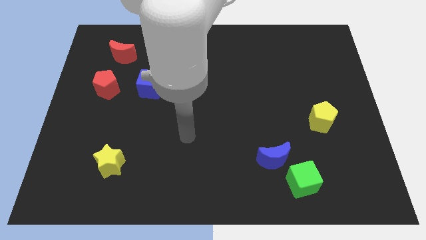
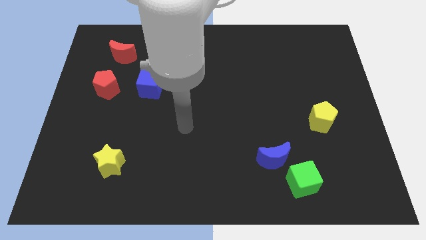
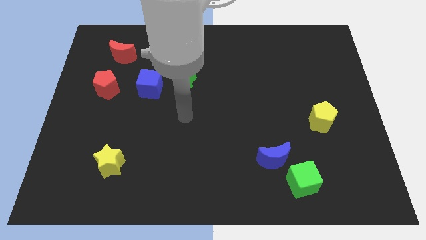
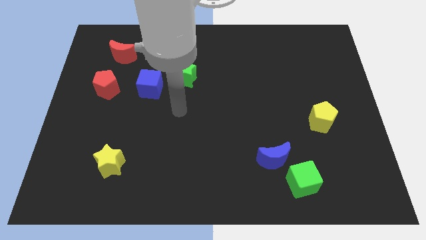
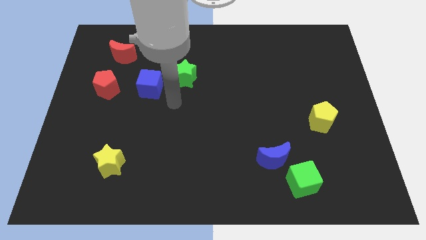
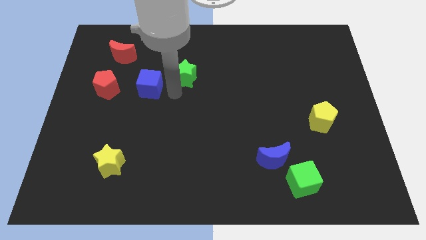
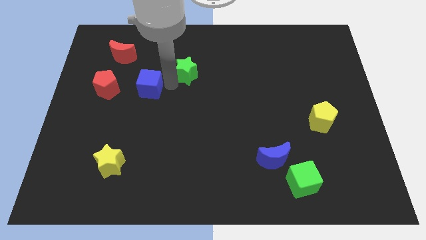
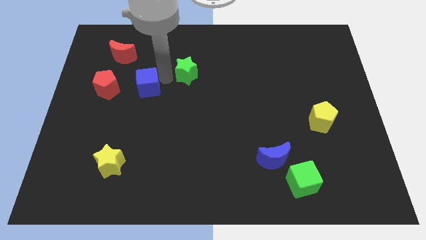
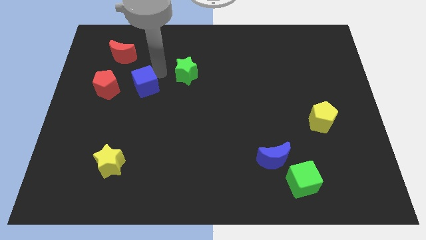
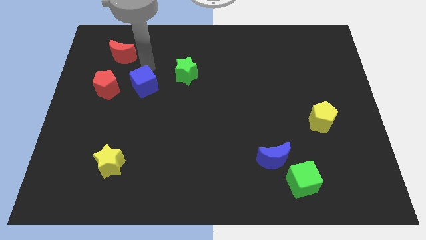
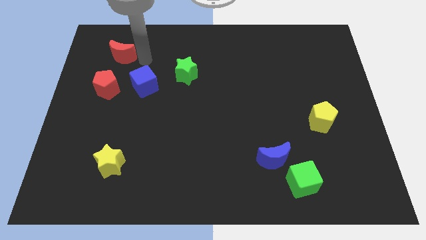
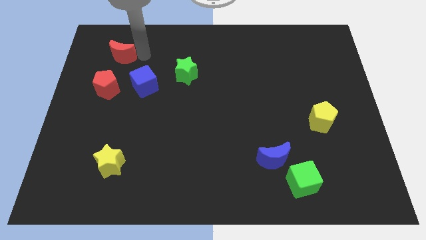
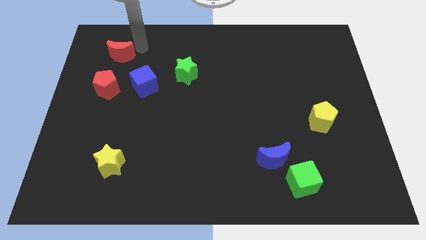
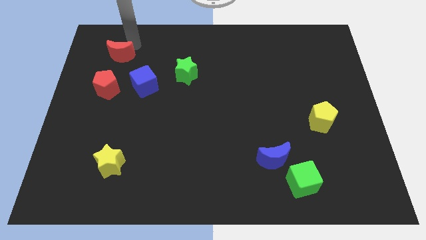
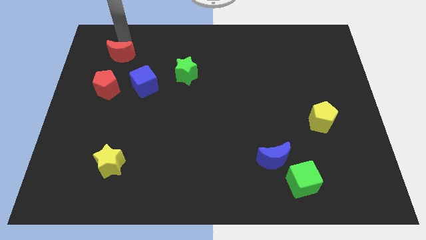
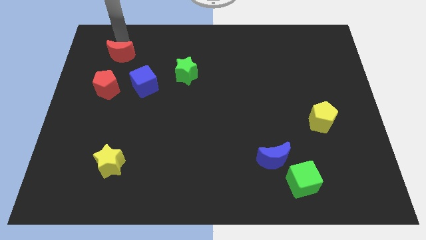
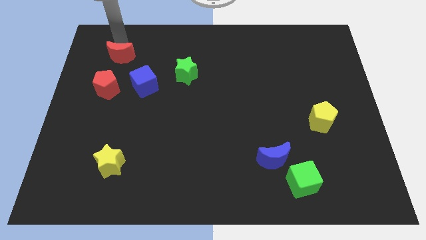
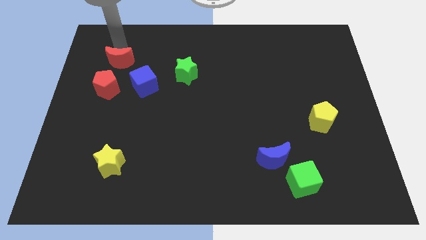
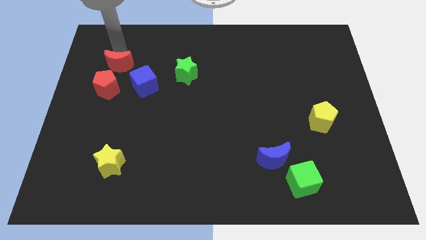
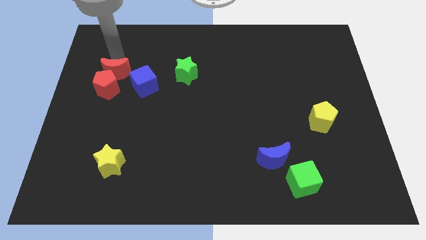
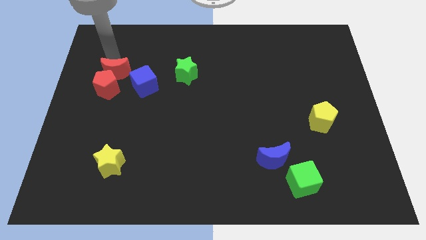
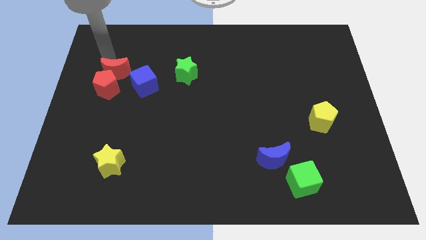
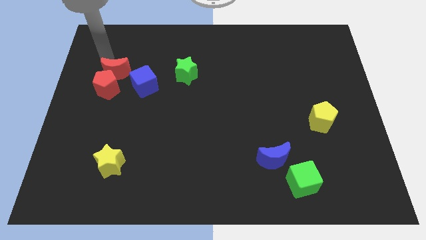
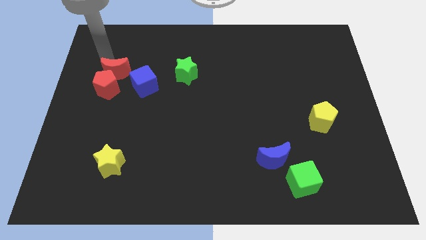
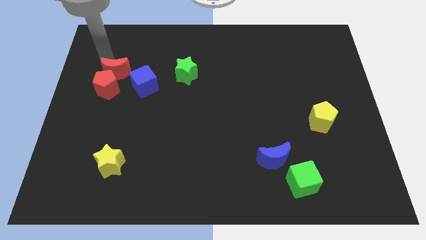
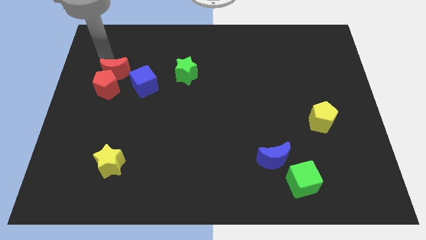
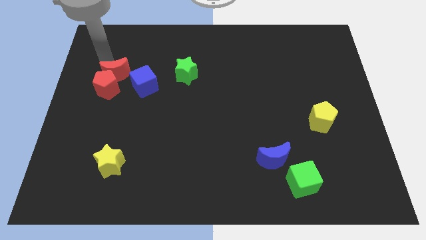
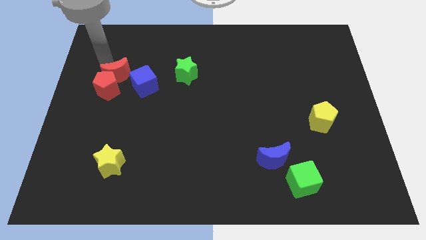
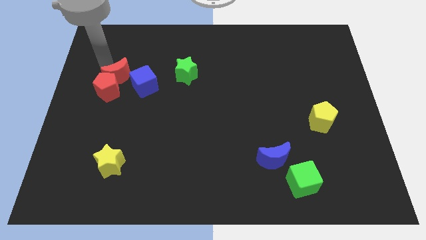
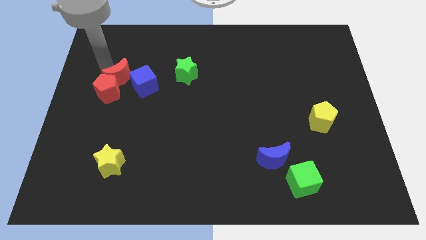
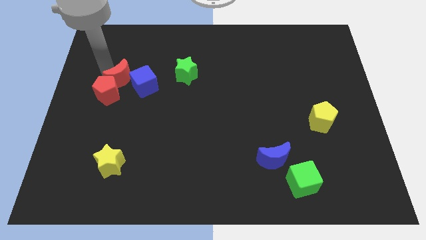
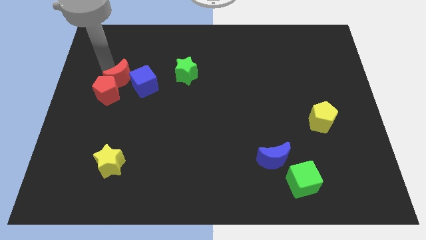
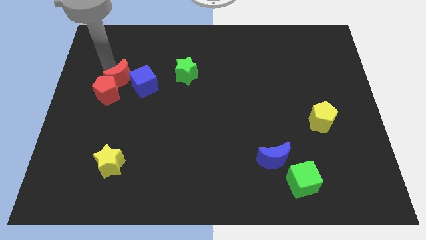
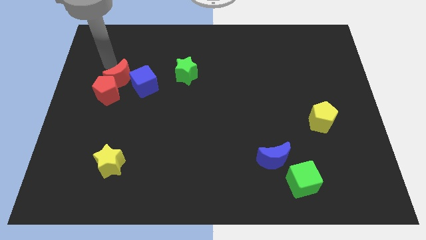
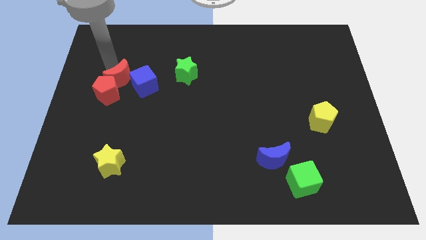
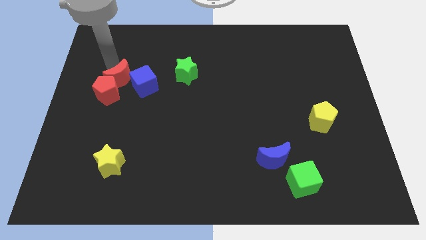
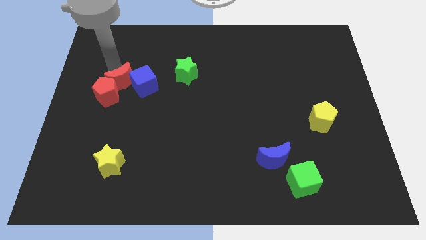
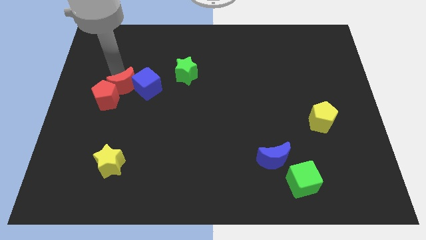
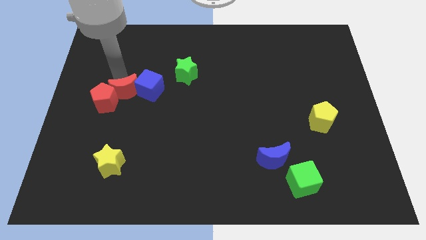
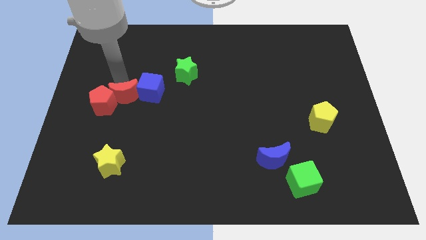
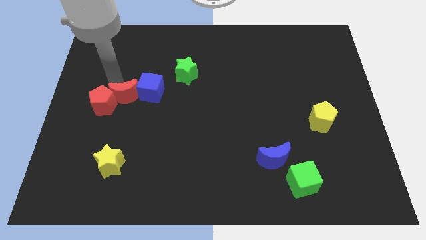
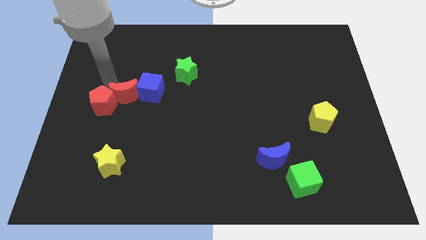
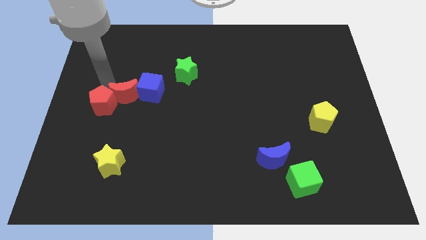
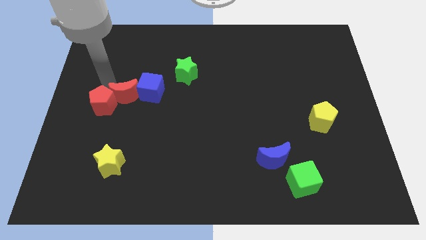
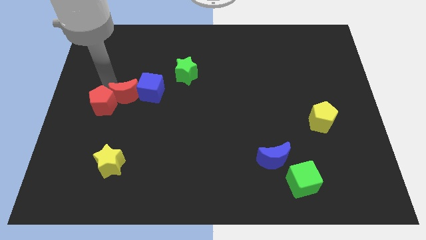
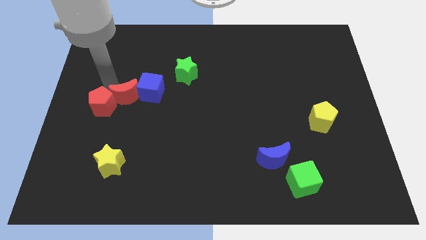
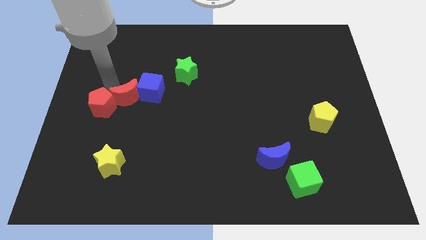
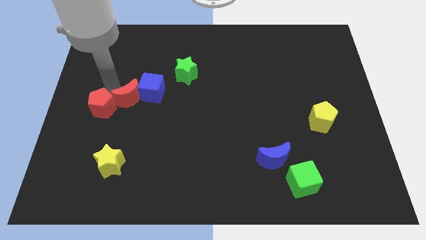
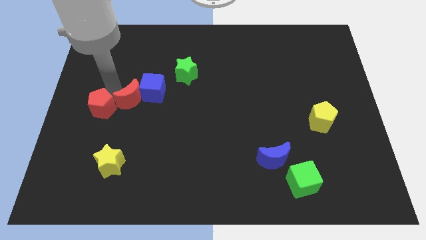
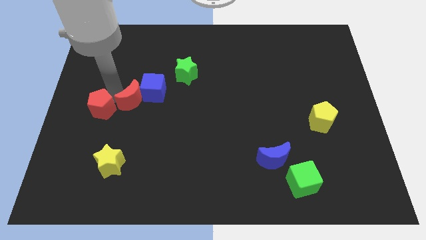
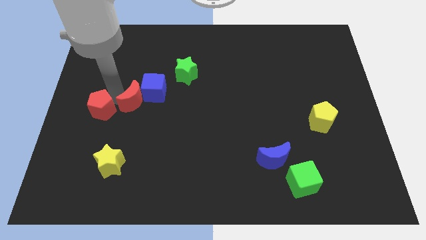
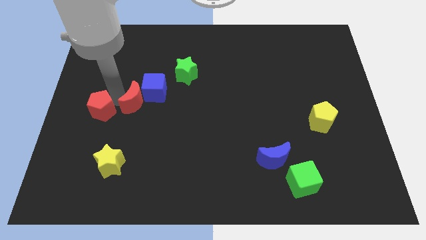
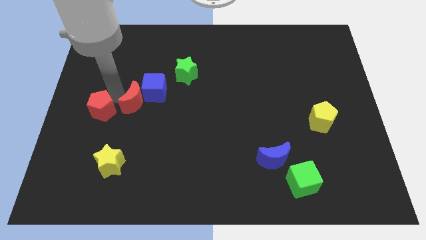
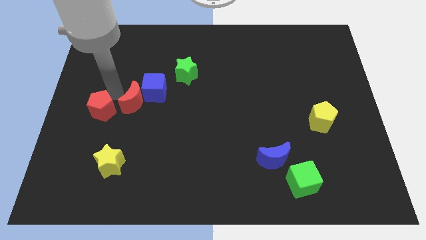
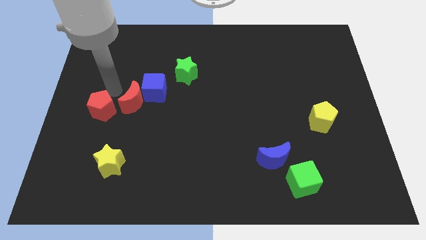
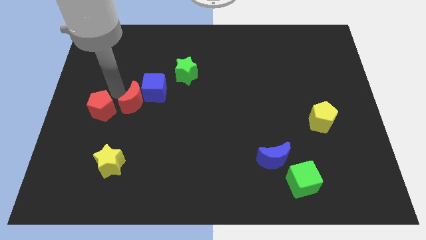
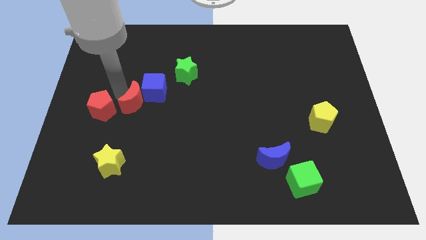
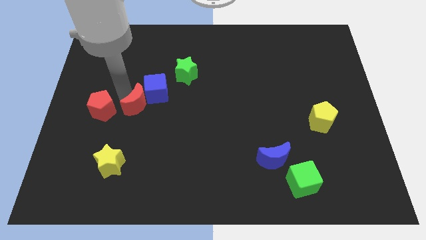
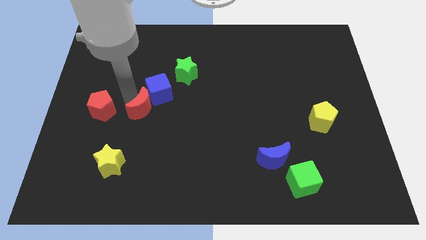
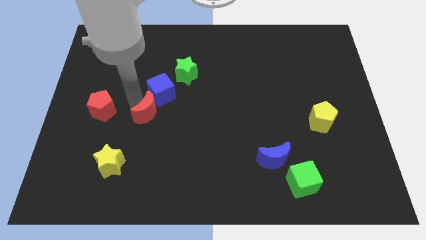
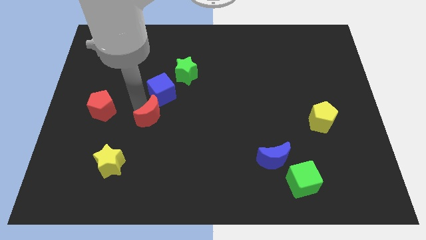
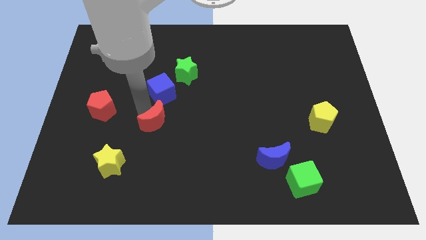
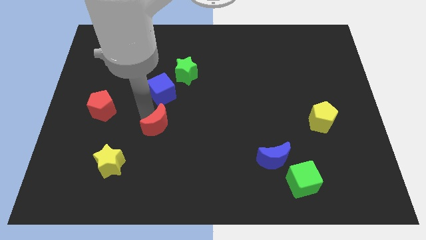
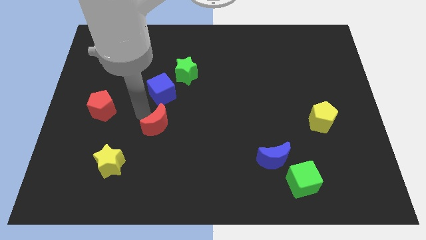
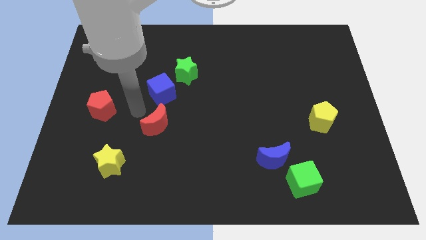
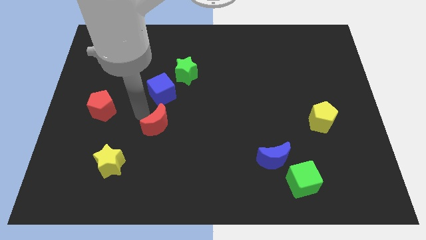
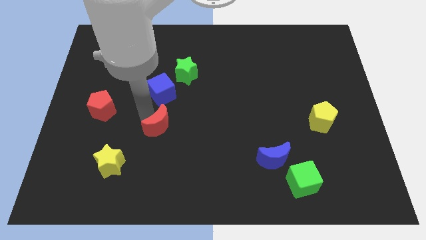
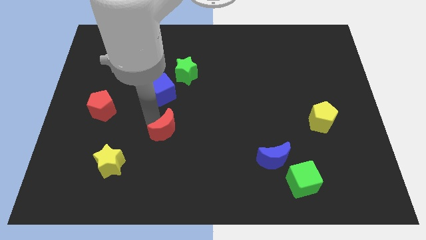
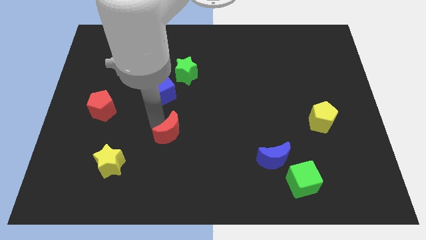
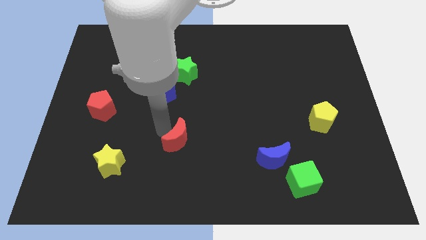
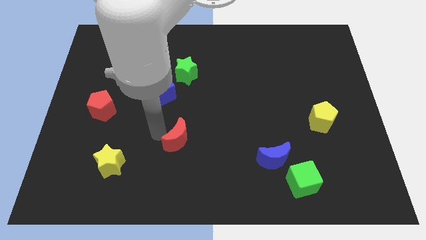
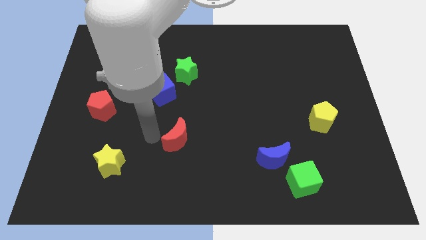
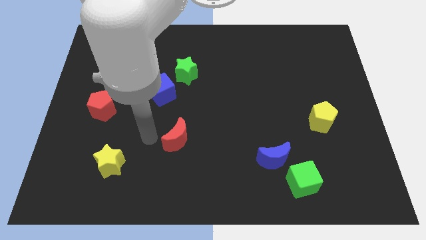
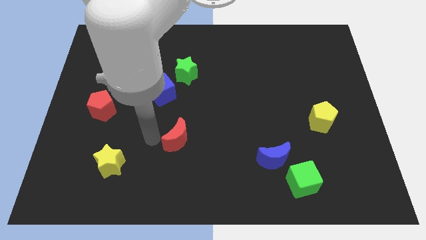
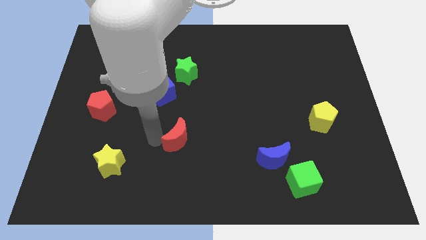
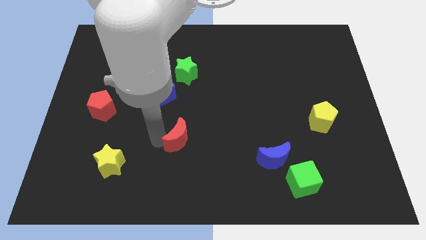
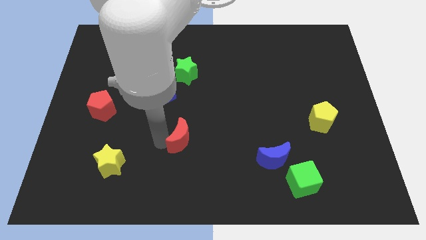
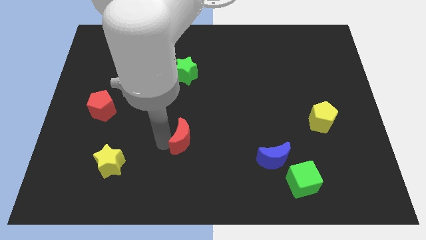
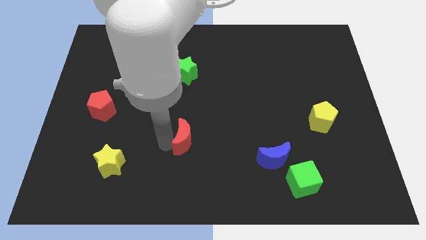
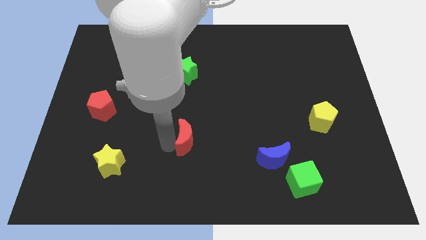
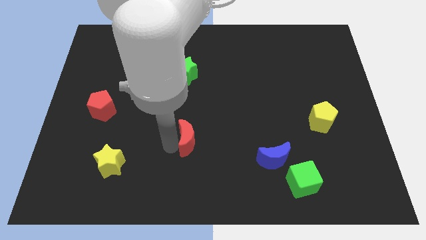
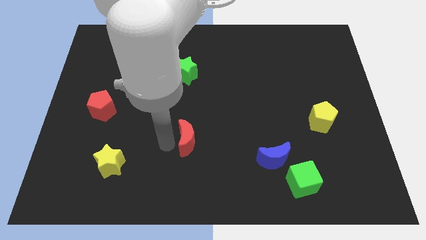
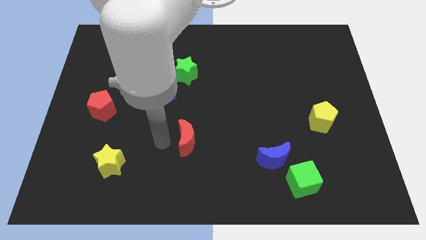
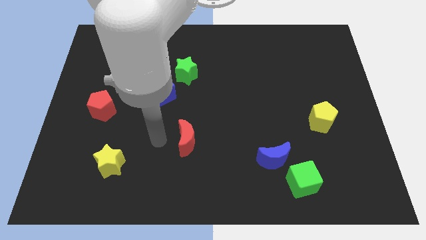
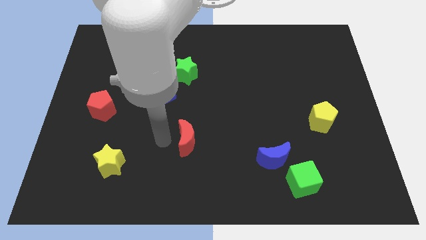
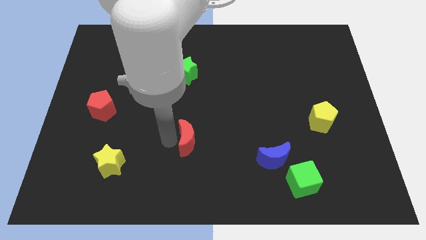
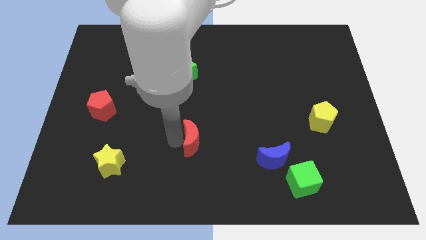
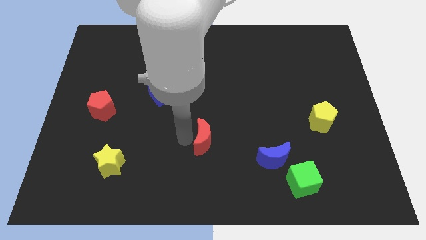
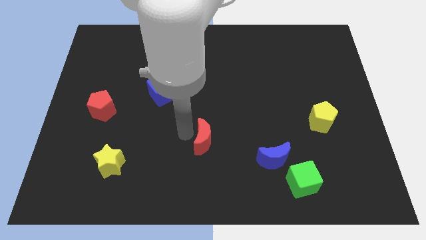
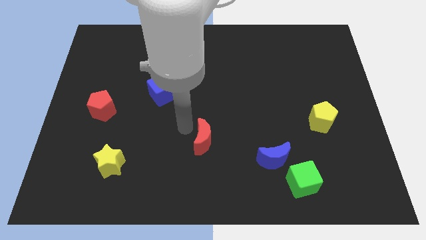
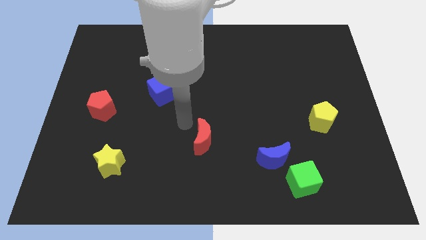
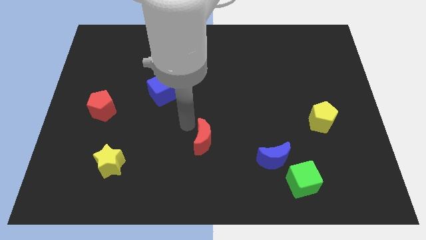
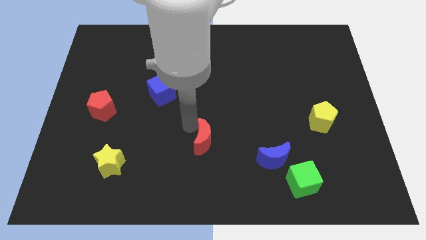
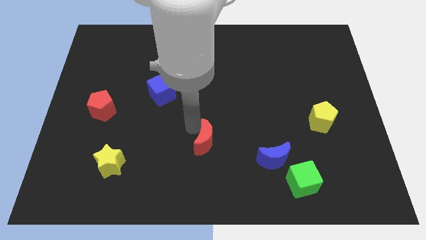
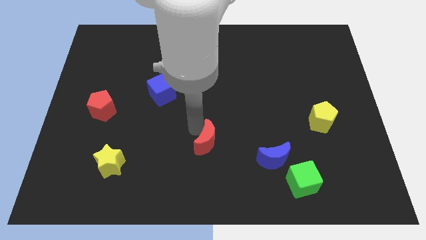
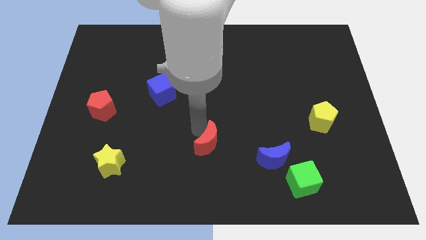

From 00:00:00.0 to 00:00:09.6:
slide the red moon to the left of the blue moon
